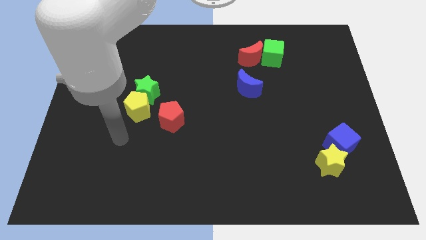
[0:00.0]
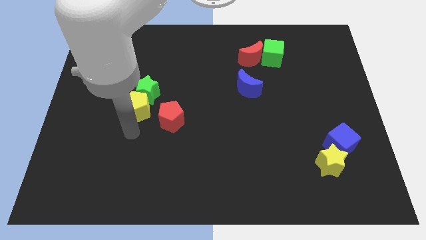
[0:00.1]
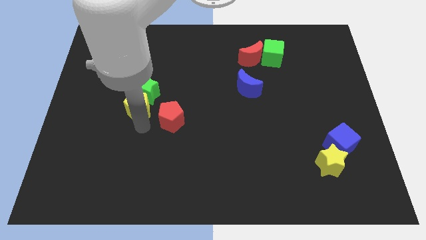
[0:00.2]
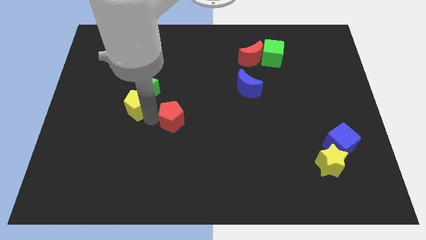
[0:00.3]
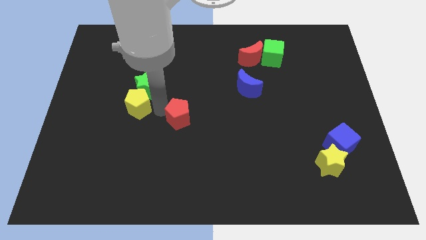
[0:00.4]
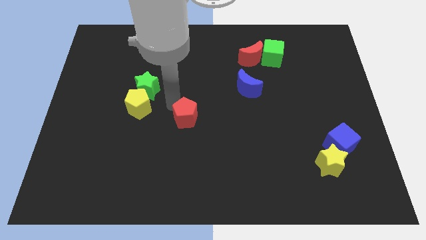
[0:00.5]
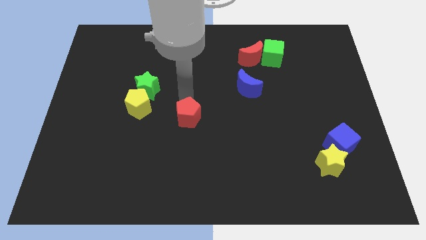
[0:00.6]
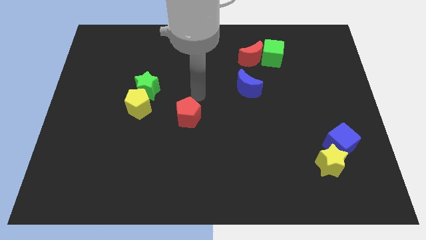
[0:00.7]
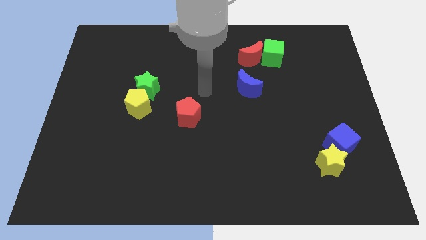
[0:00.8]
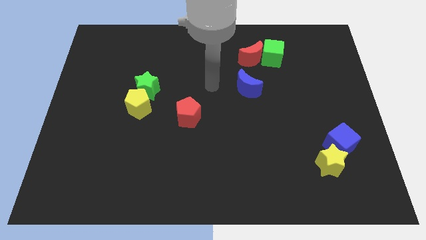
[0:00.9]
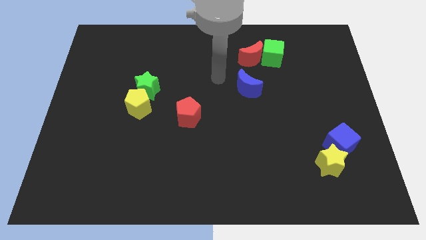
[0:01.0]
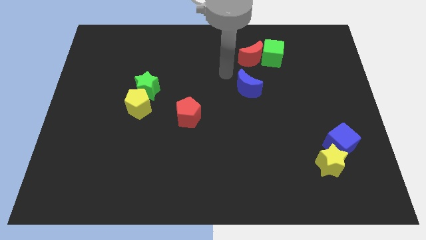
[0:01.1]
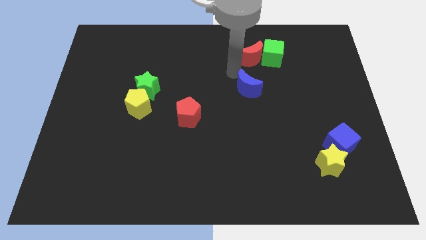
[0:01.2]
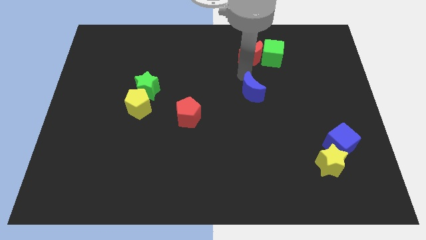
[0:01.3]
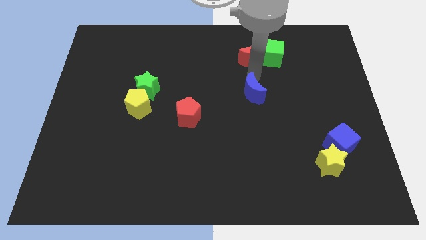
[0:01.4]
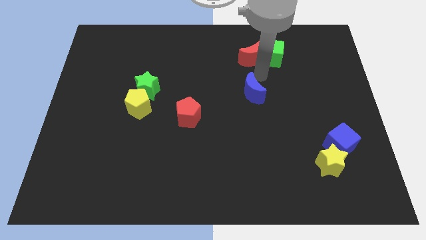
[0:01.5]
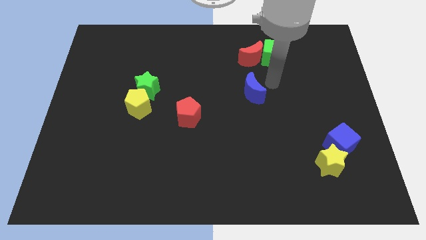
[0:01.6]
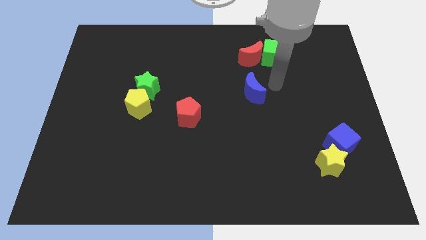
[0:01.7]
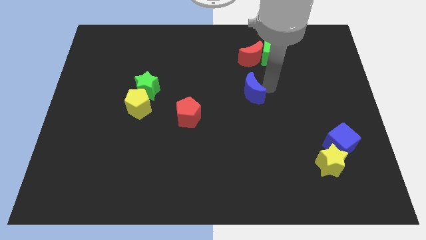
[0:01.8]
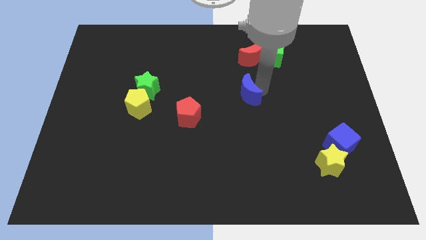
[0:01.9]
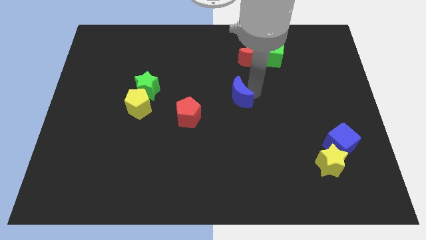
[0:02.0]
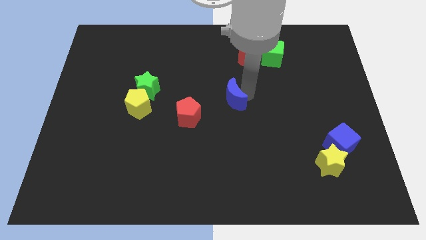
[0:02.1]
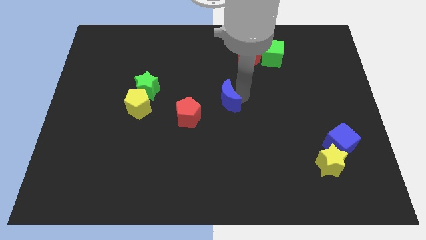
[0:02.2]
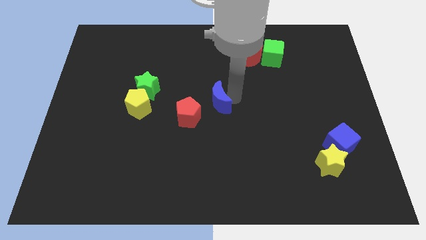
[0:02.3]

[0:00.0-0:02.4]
push the blue moon downwards and left diagonally a bit

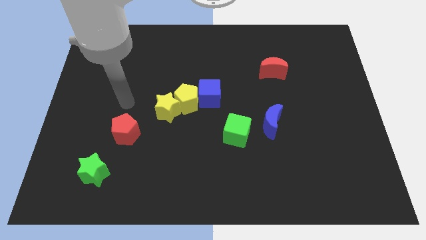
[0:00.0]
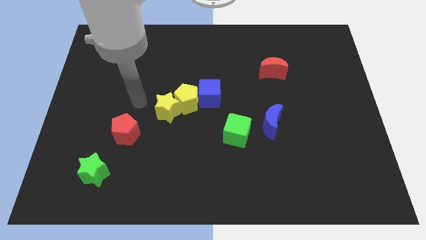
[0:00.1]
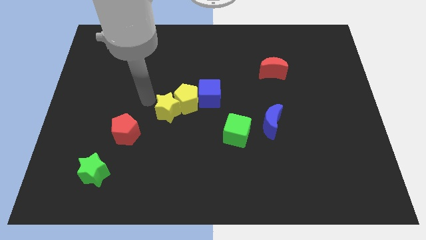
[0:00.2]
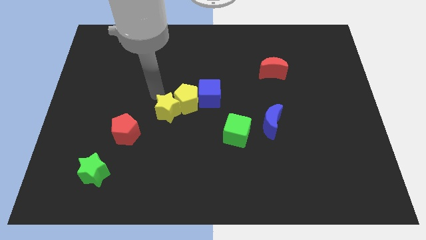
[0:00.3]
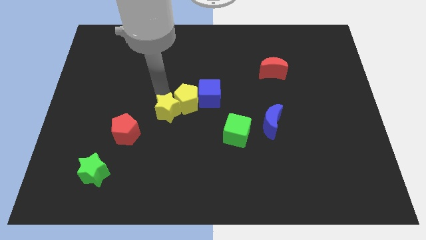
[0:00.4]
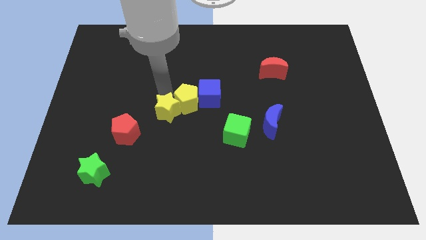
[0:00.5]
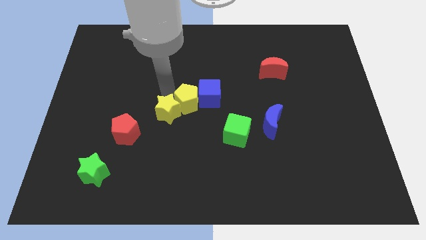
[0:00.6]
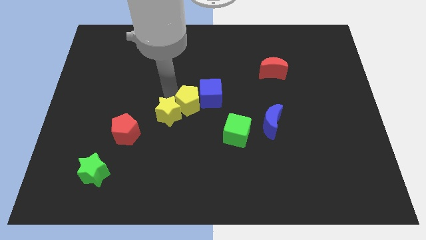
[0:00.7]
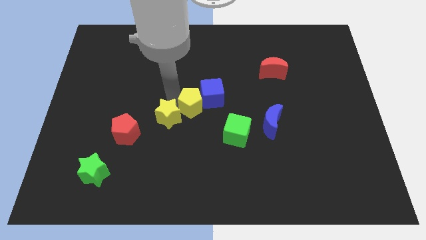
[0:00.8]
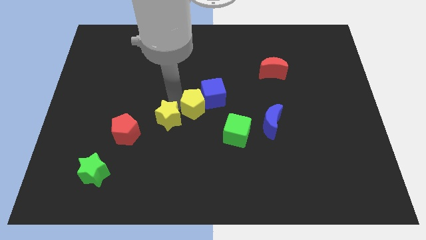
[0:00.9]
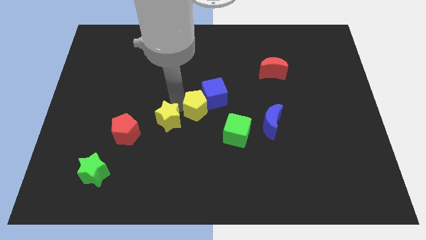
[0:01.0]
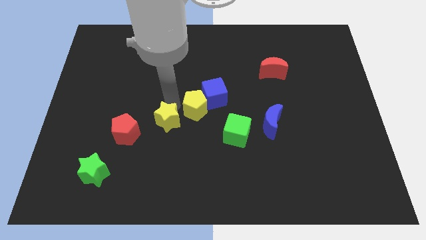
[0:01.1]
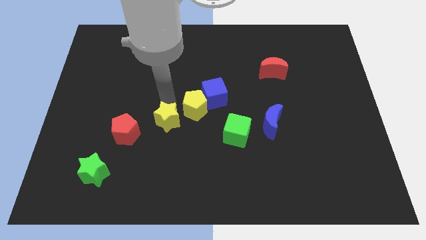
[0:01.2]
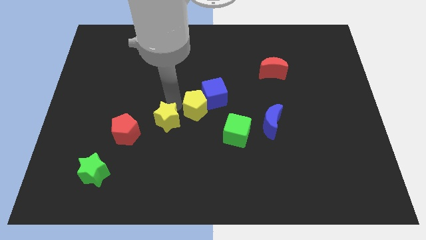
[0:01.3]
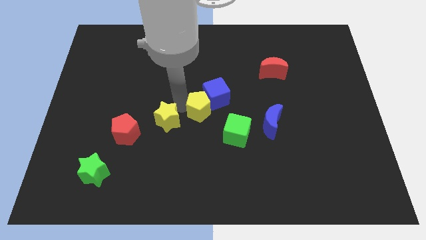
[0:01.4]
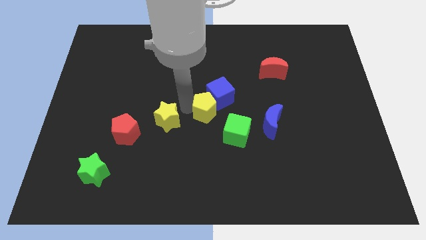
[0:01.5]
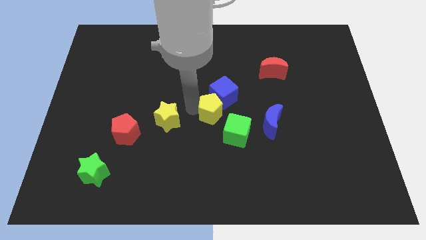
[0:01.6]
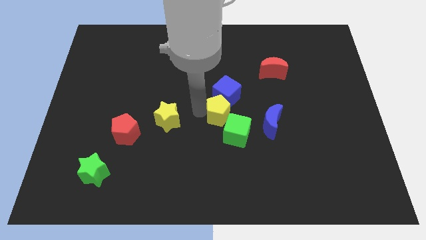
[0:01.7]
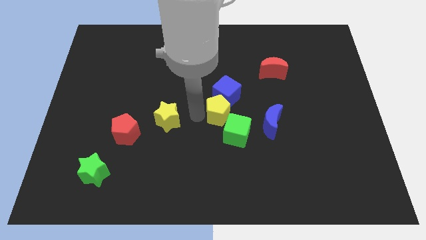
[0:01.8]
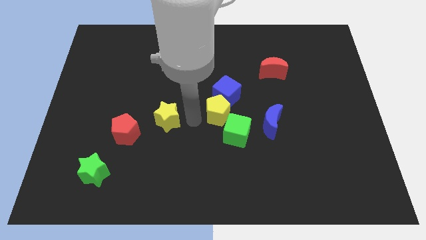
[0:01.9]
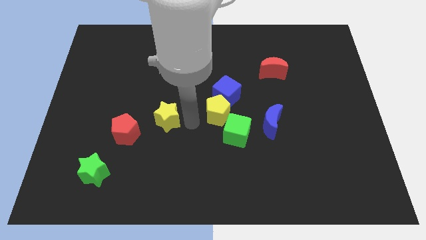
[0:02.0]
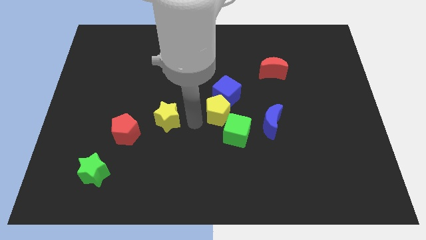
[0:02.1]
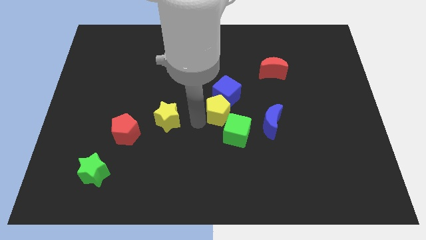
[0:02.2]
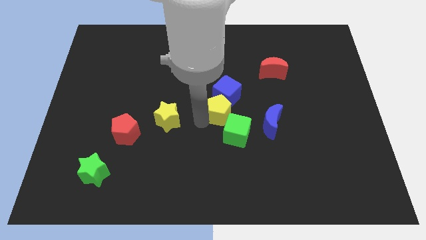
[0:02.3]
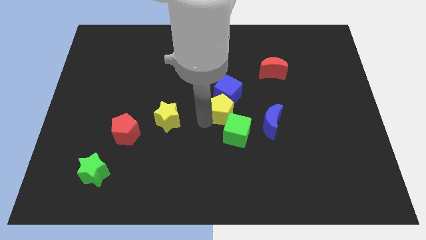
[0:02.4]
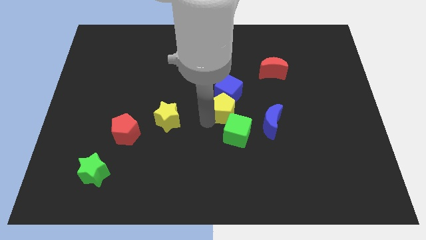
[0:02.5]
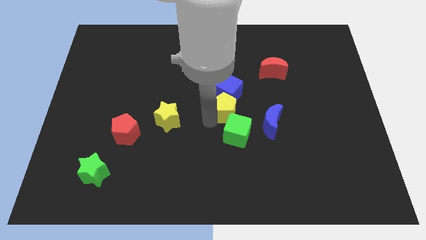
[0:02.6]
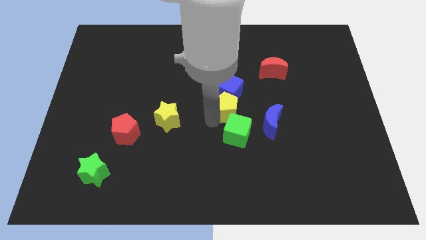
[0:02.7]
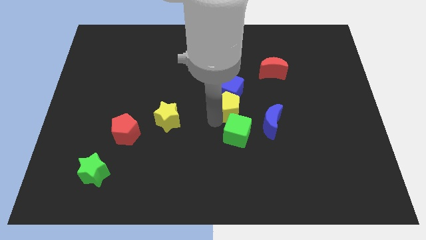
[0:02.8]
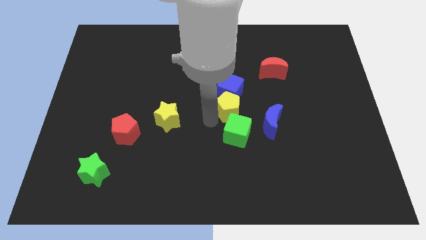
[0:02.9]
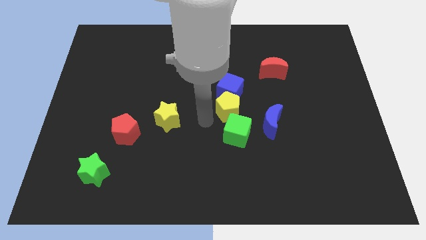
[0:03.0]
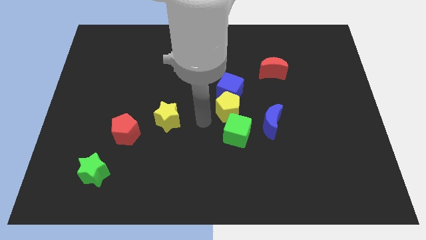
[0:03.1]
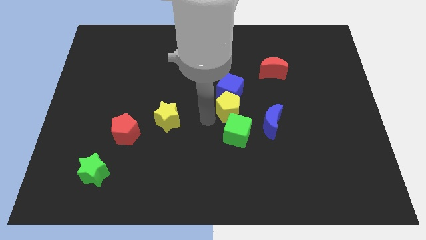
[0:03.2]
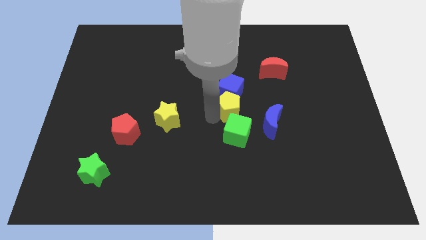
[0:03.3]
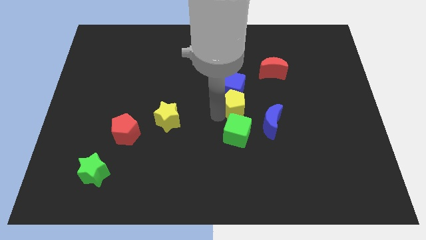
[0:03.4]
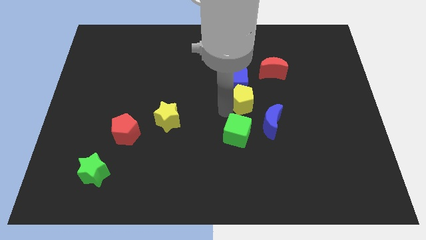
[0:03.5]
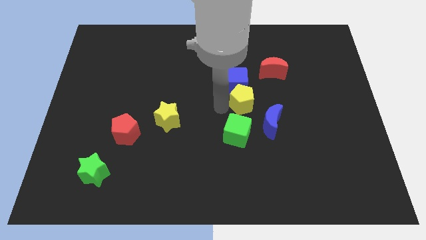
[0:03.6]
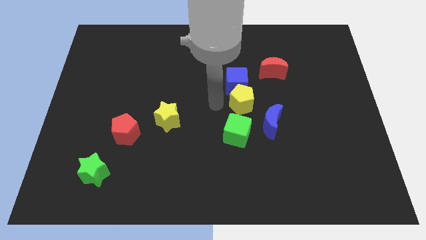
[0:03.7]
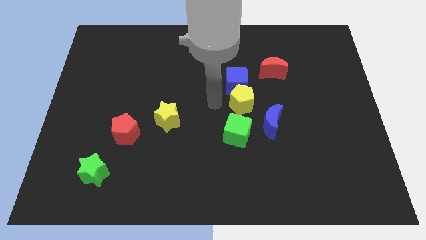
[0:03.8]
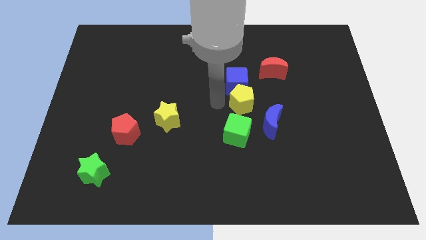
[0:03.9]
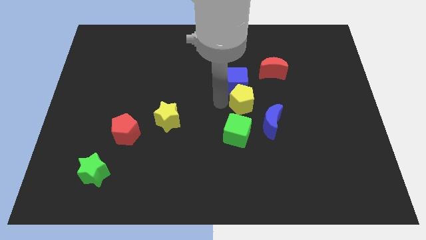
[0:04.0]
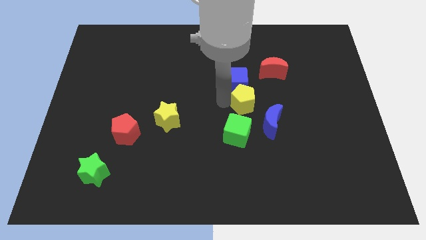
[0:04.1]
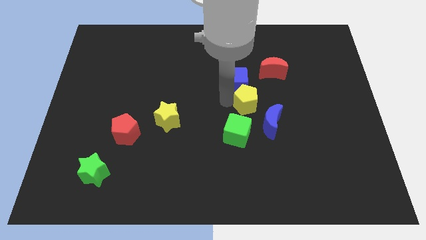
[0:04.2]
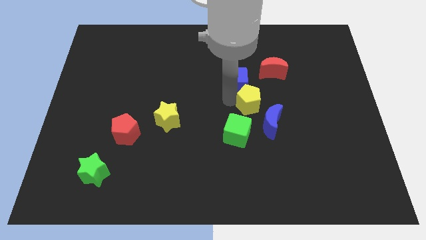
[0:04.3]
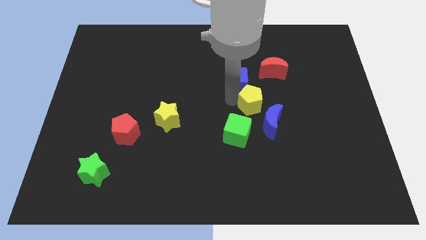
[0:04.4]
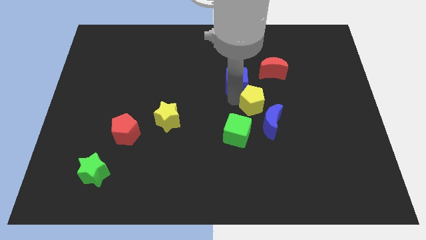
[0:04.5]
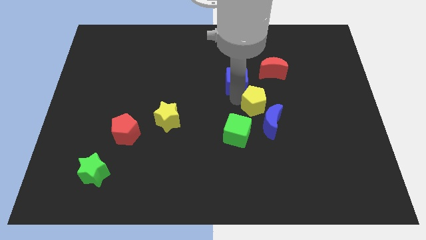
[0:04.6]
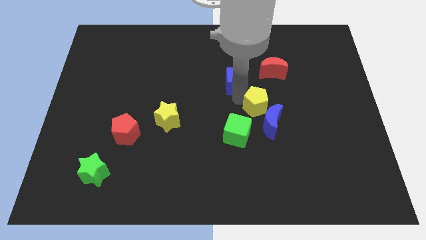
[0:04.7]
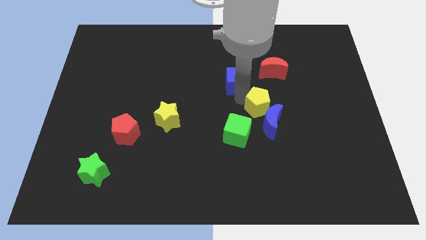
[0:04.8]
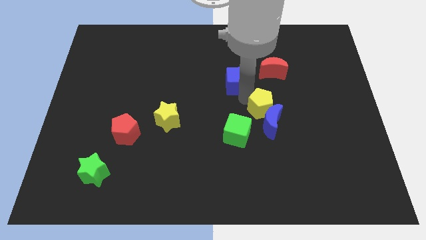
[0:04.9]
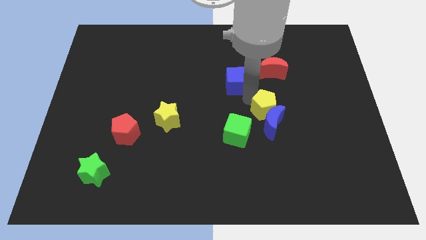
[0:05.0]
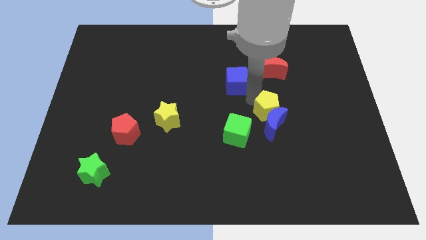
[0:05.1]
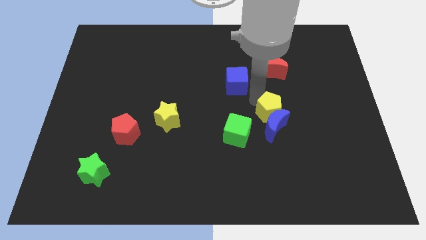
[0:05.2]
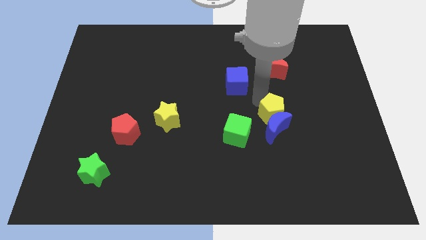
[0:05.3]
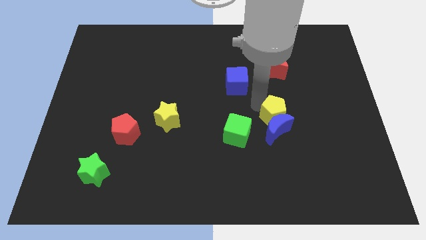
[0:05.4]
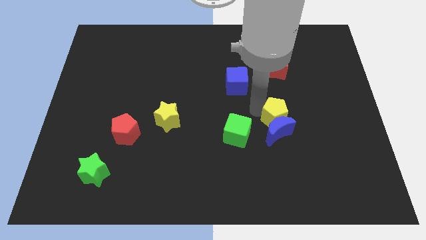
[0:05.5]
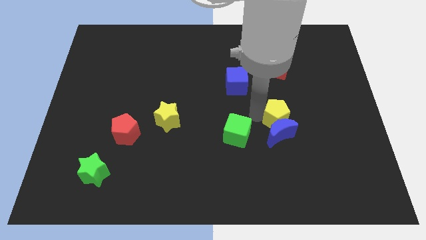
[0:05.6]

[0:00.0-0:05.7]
move the yellow pentagon right

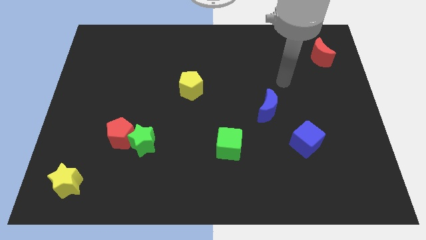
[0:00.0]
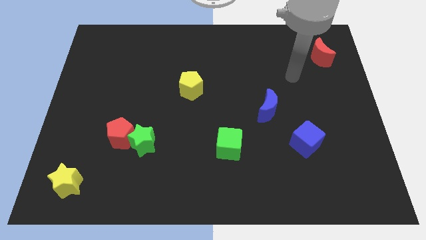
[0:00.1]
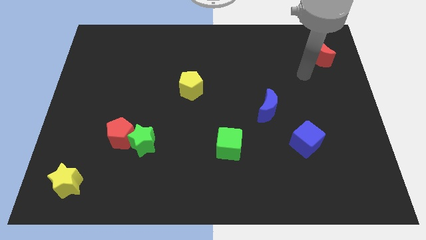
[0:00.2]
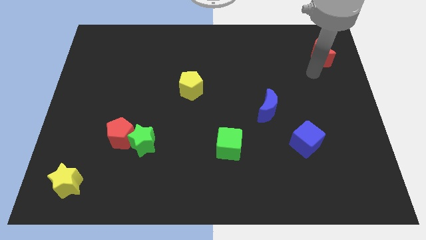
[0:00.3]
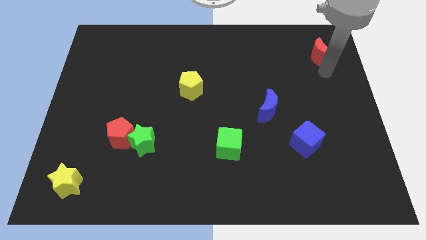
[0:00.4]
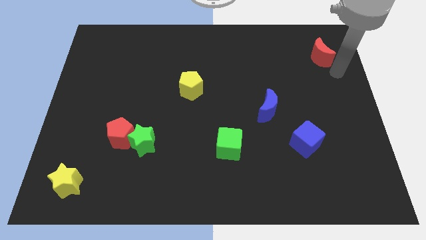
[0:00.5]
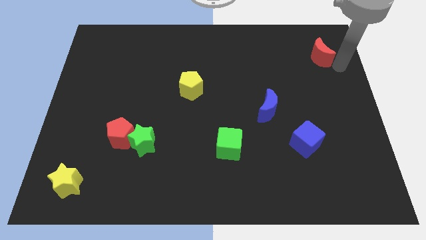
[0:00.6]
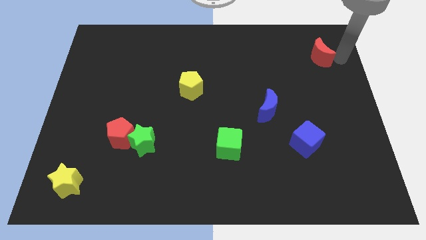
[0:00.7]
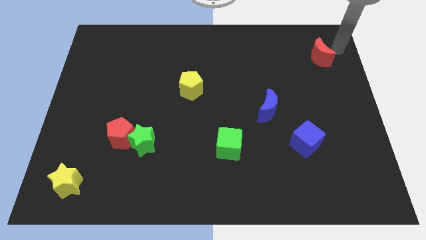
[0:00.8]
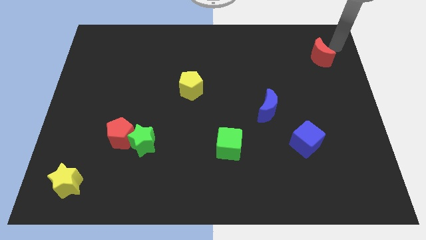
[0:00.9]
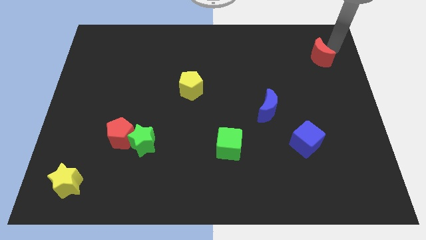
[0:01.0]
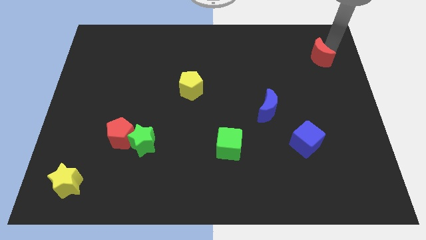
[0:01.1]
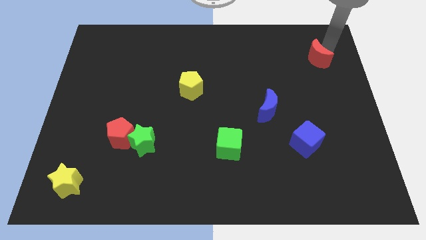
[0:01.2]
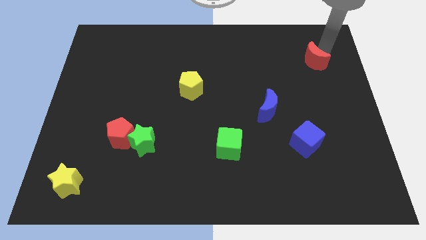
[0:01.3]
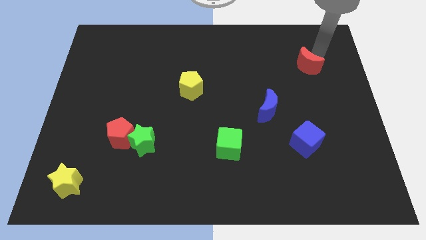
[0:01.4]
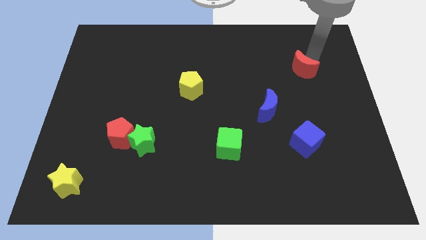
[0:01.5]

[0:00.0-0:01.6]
push the red moon diagonally downwards and to the left slightly
